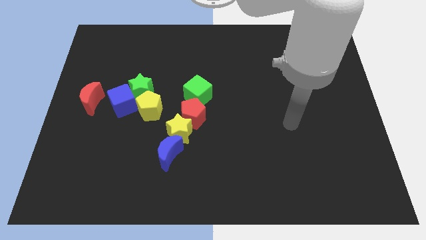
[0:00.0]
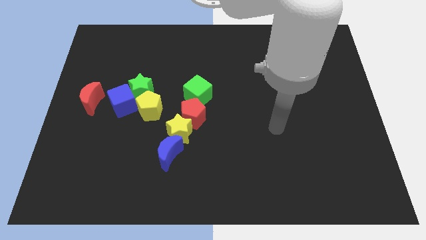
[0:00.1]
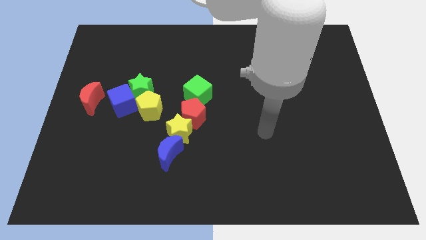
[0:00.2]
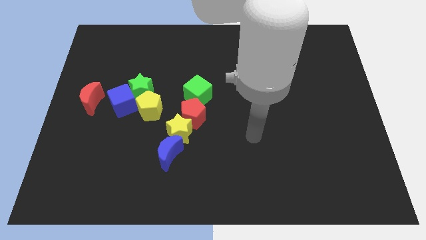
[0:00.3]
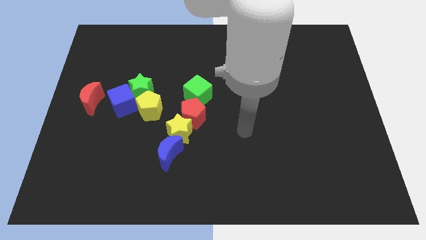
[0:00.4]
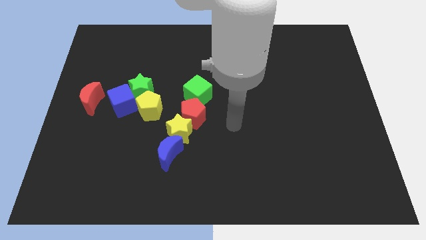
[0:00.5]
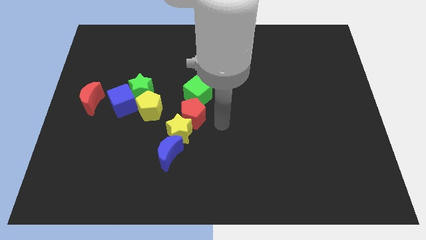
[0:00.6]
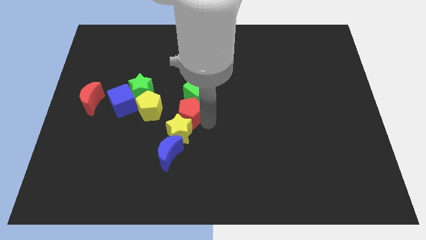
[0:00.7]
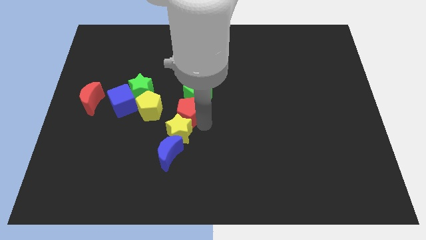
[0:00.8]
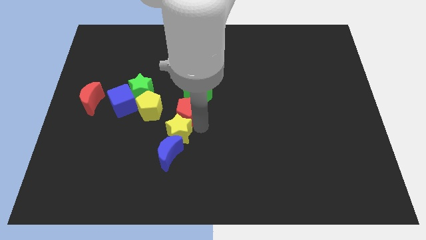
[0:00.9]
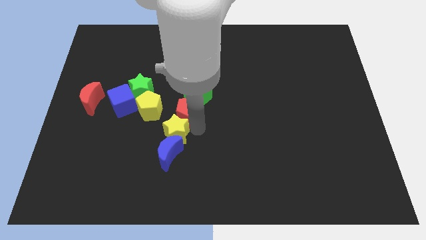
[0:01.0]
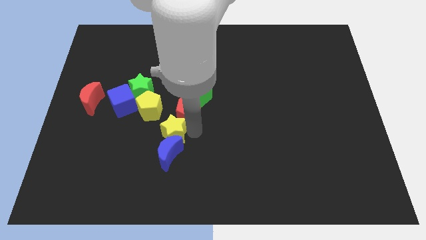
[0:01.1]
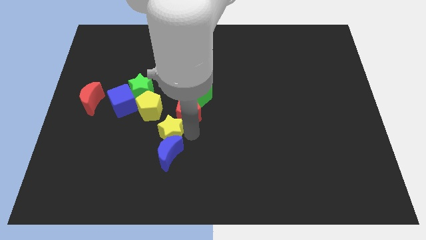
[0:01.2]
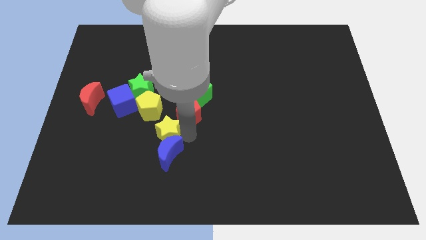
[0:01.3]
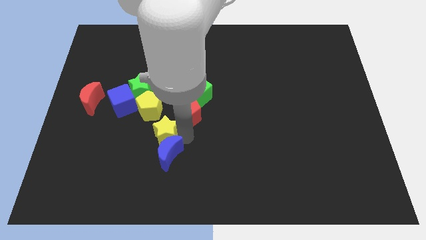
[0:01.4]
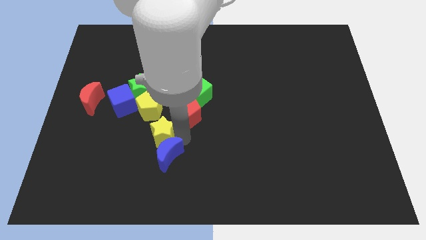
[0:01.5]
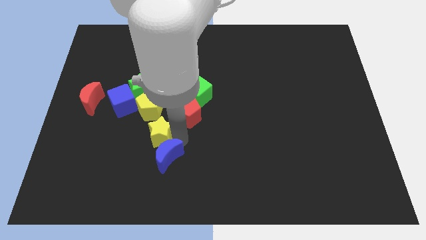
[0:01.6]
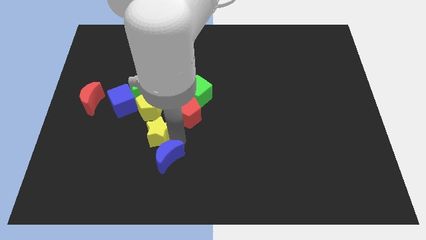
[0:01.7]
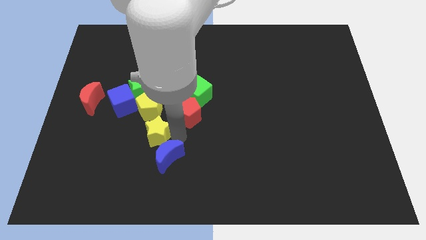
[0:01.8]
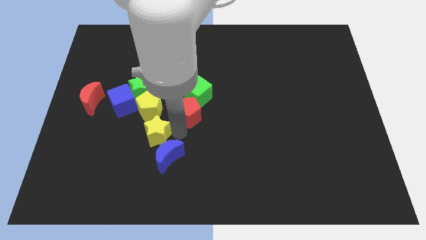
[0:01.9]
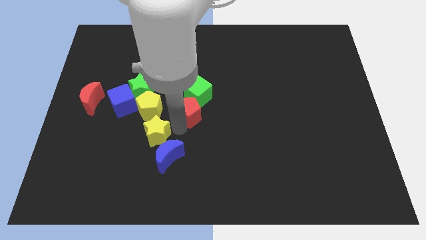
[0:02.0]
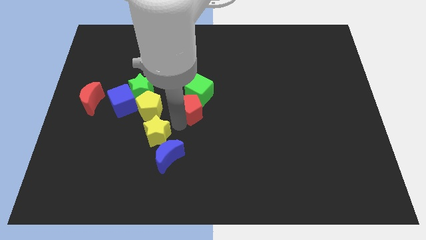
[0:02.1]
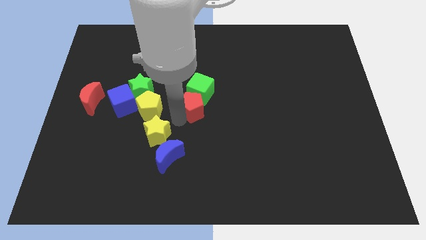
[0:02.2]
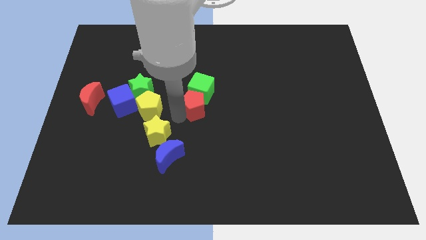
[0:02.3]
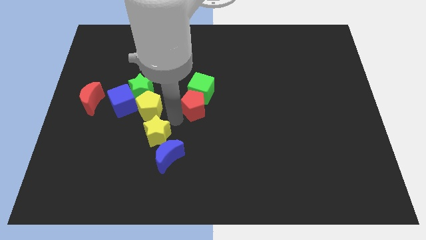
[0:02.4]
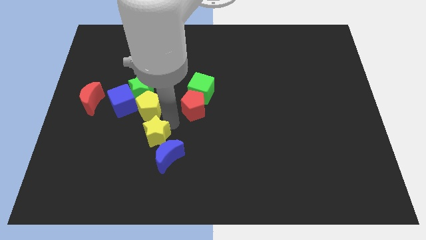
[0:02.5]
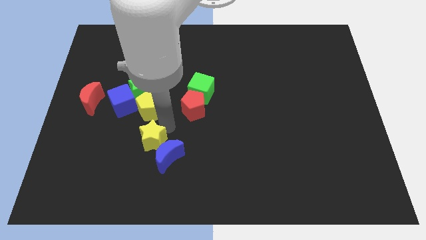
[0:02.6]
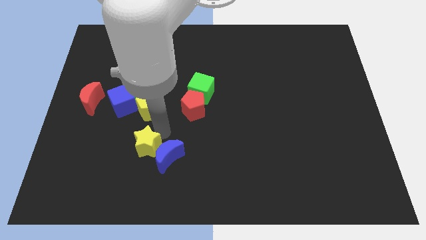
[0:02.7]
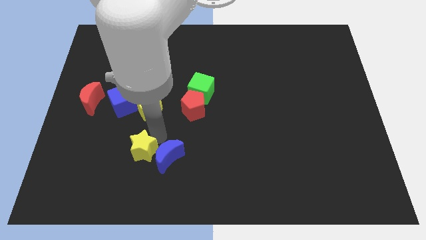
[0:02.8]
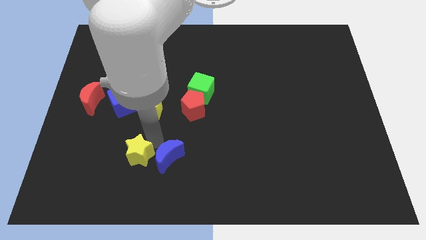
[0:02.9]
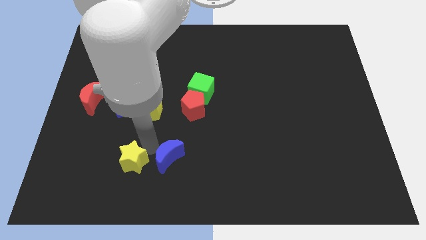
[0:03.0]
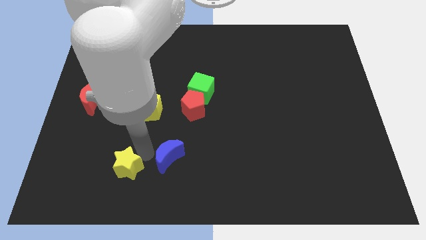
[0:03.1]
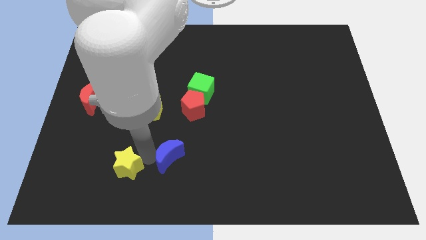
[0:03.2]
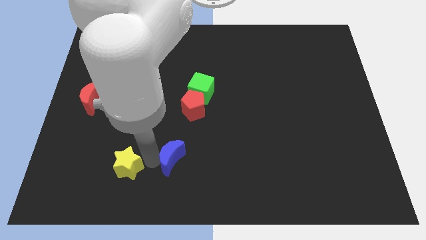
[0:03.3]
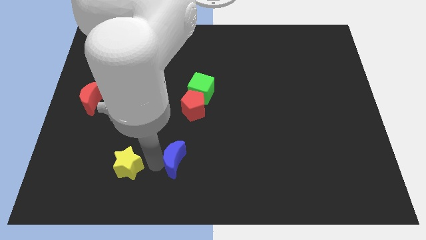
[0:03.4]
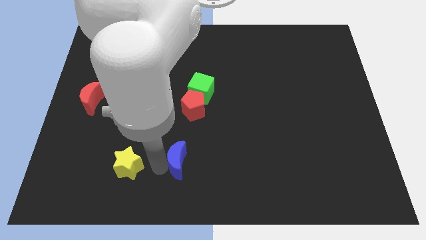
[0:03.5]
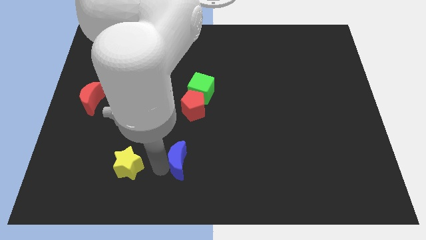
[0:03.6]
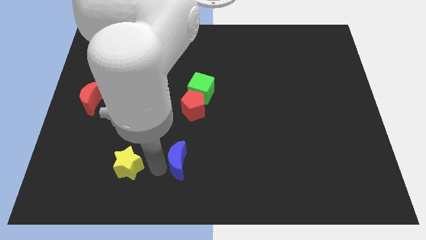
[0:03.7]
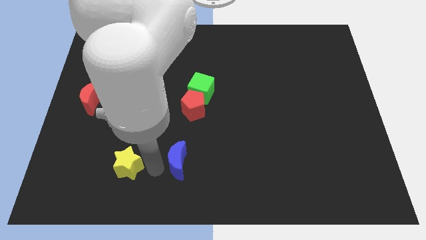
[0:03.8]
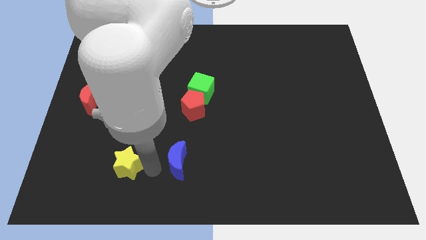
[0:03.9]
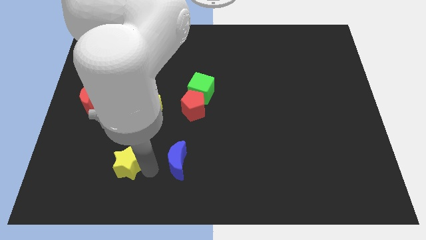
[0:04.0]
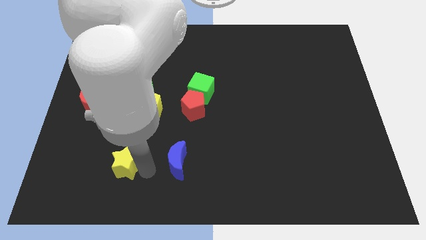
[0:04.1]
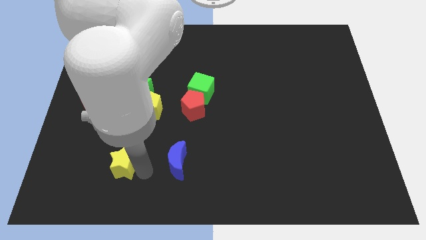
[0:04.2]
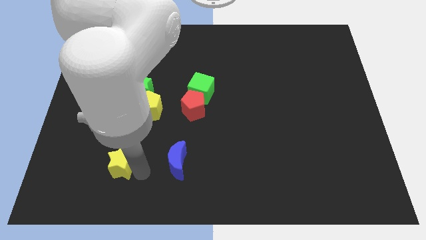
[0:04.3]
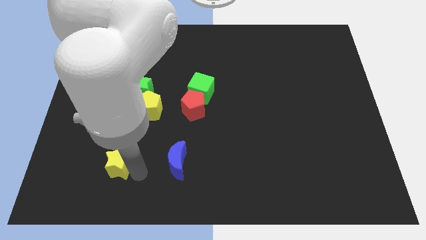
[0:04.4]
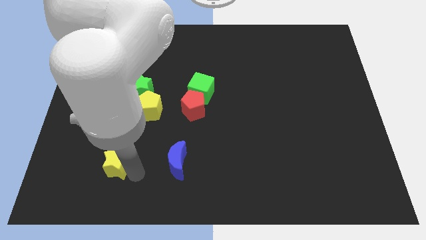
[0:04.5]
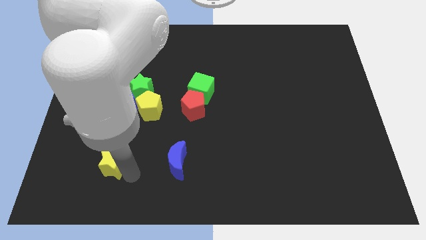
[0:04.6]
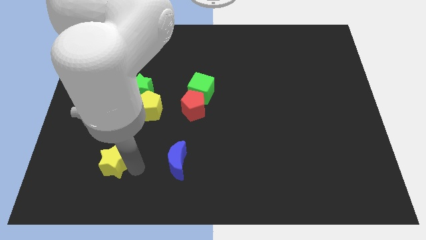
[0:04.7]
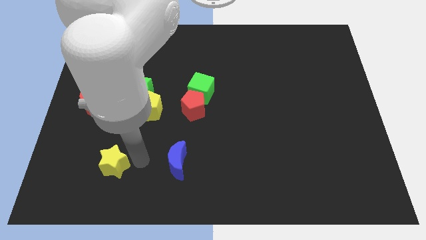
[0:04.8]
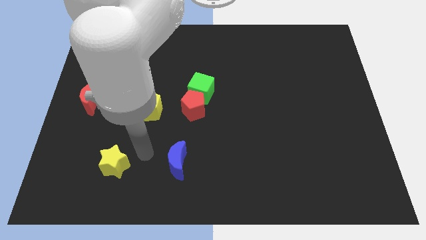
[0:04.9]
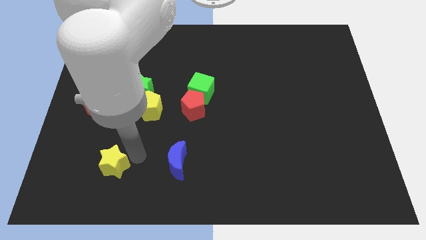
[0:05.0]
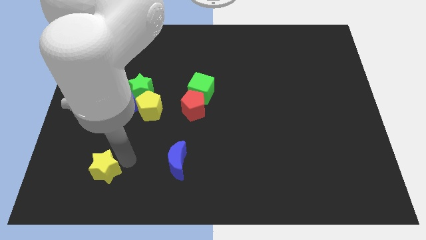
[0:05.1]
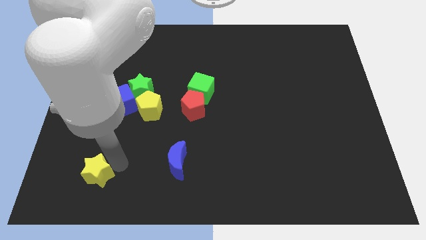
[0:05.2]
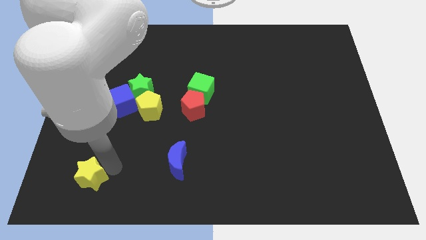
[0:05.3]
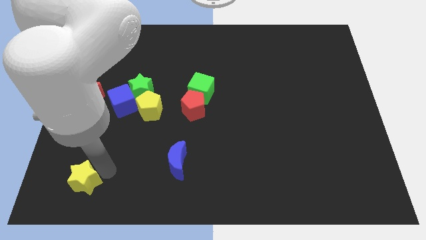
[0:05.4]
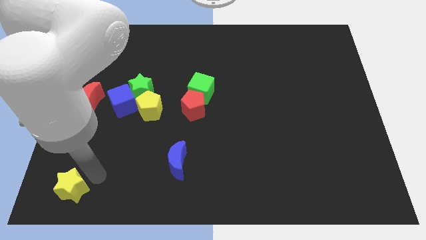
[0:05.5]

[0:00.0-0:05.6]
move the yellow star to the bottom left corner

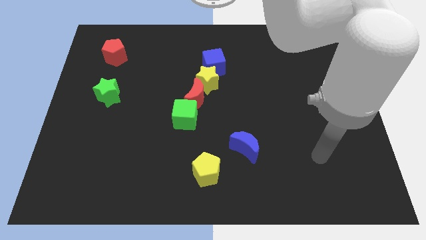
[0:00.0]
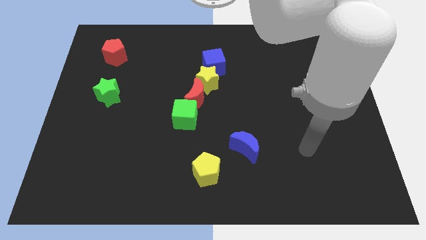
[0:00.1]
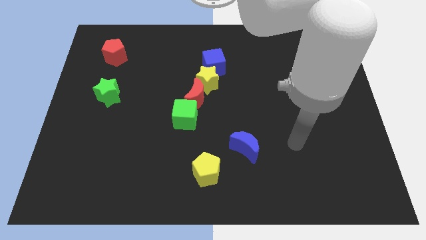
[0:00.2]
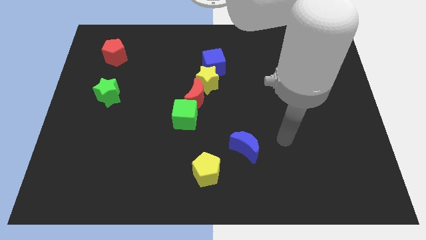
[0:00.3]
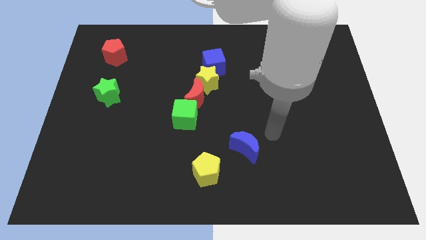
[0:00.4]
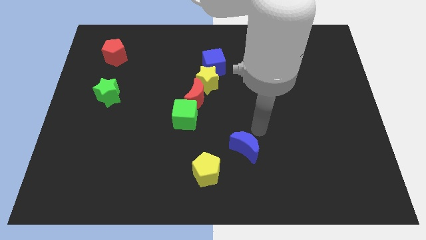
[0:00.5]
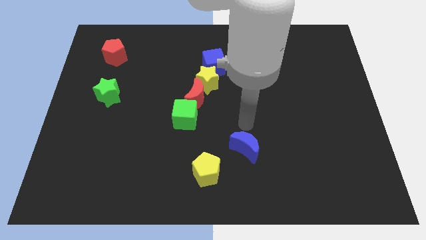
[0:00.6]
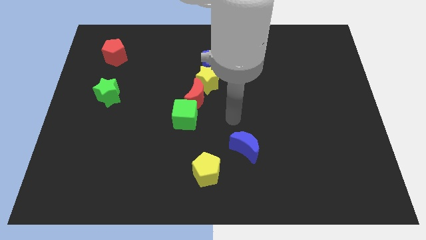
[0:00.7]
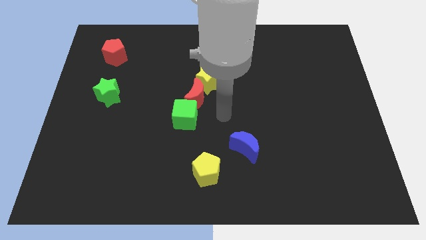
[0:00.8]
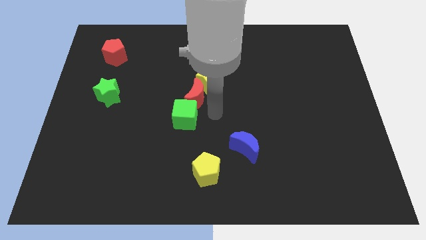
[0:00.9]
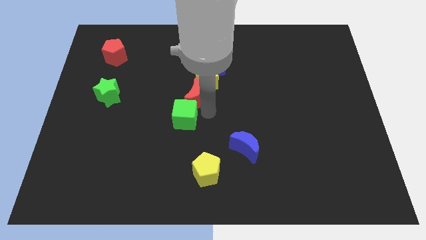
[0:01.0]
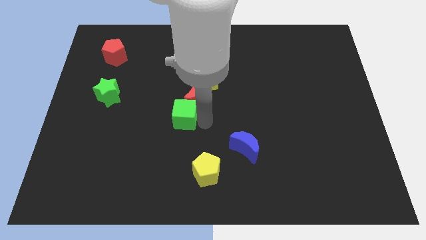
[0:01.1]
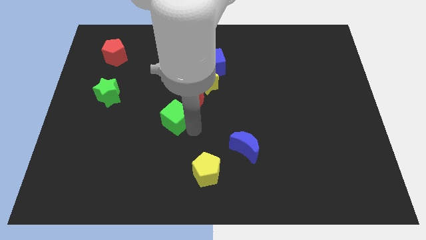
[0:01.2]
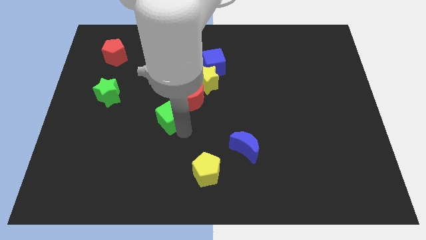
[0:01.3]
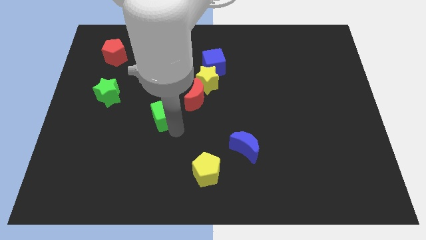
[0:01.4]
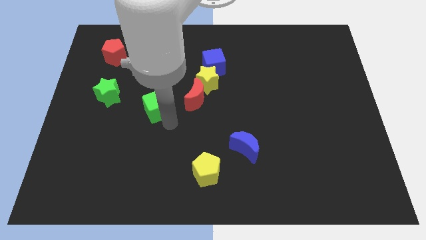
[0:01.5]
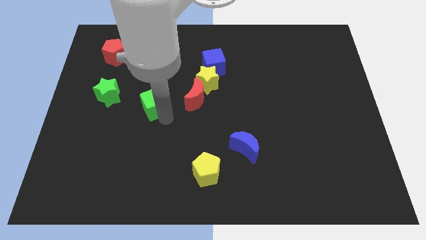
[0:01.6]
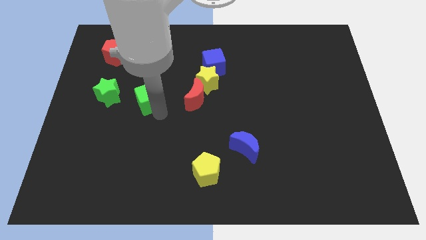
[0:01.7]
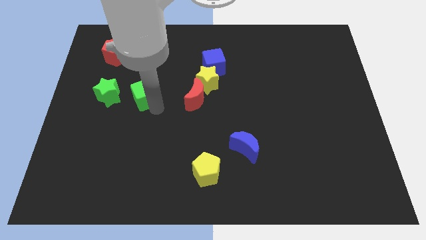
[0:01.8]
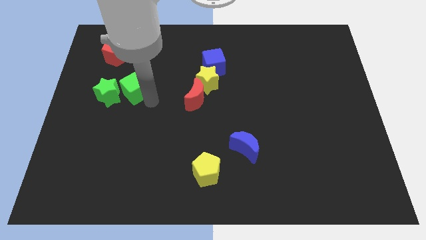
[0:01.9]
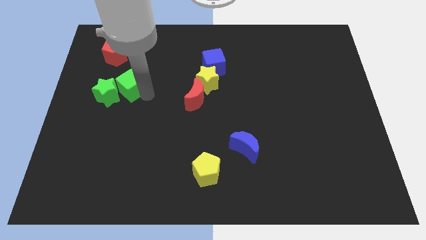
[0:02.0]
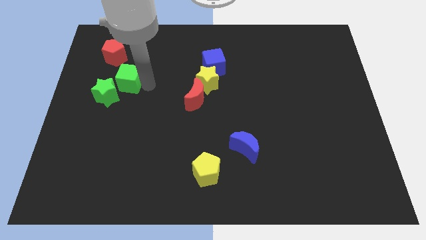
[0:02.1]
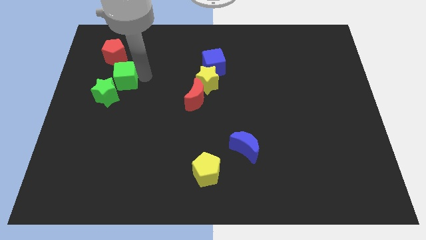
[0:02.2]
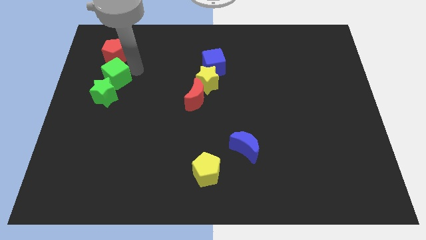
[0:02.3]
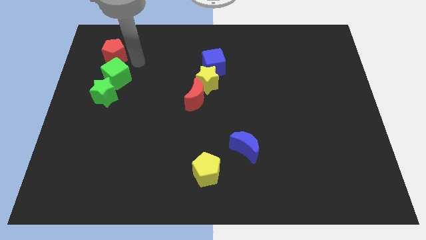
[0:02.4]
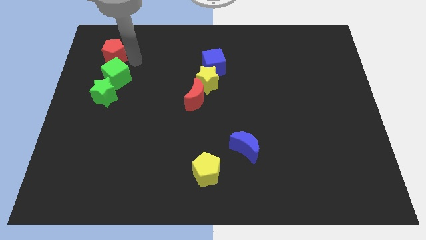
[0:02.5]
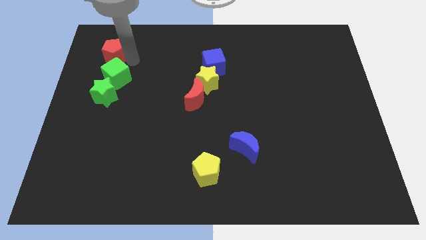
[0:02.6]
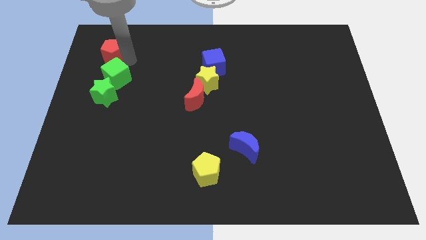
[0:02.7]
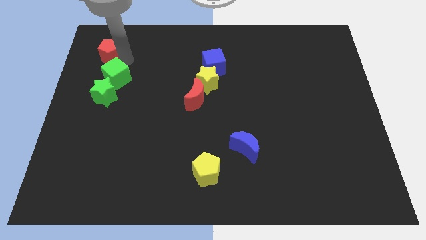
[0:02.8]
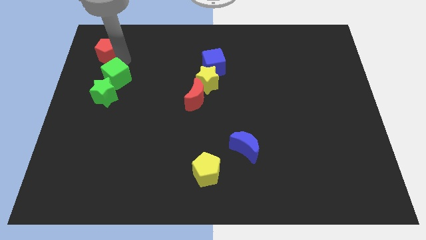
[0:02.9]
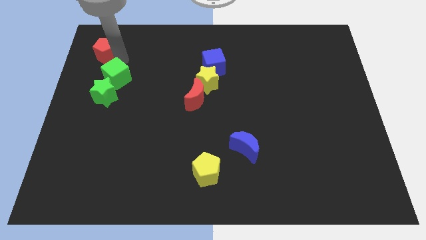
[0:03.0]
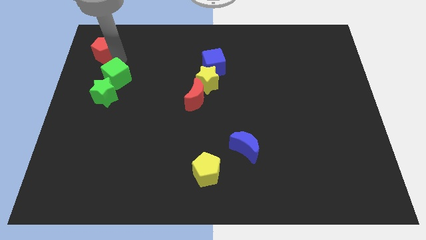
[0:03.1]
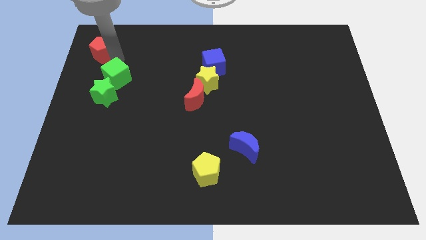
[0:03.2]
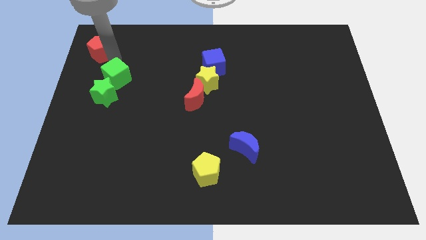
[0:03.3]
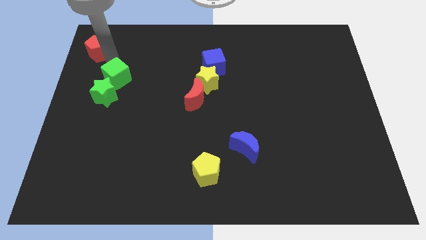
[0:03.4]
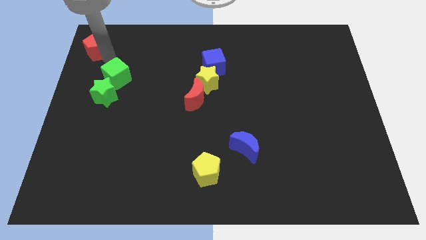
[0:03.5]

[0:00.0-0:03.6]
slide the red pentagon to the top left corner
